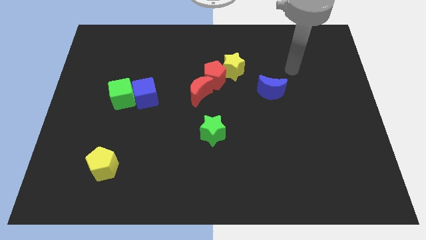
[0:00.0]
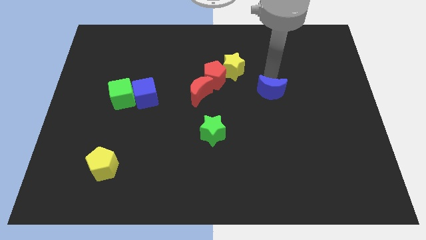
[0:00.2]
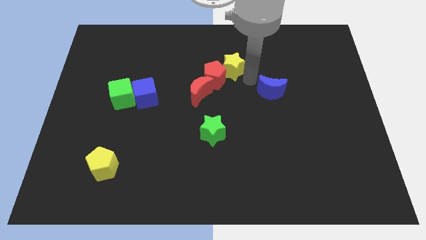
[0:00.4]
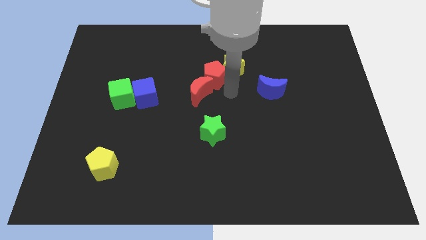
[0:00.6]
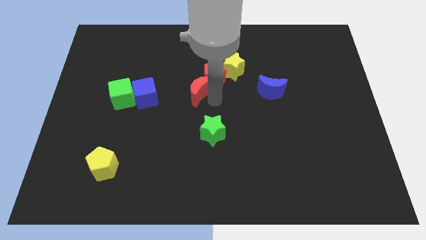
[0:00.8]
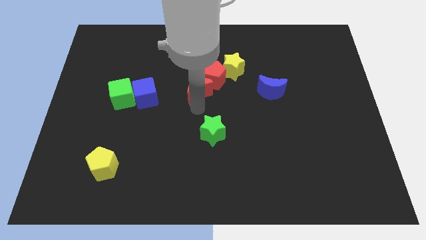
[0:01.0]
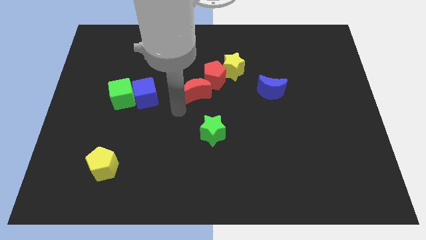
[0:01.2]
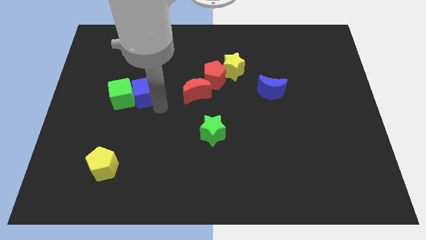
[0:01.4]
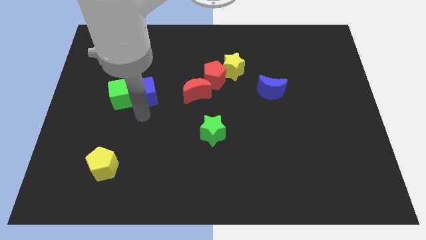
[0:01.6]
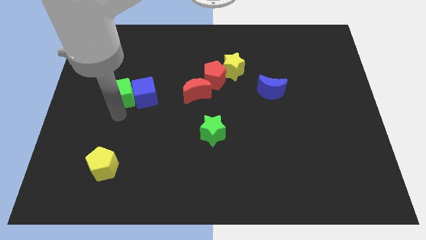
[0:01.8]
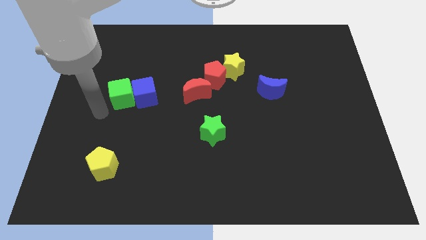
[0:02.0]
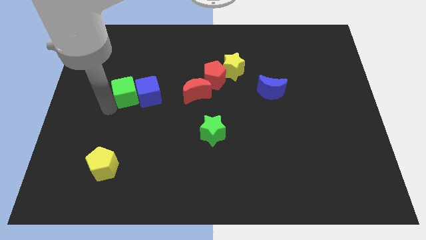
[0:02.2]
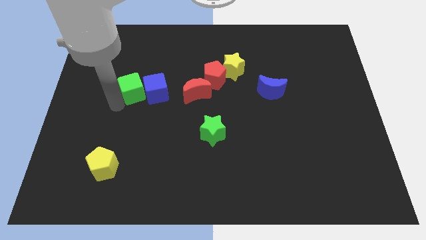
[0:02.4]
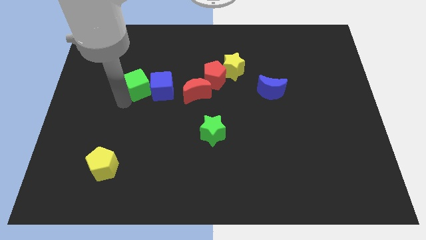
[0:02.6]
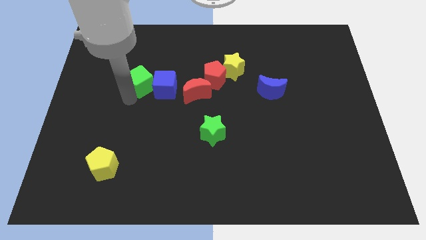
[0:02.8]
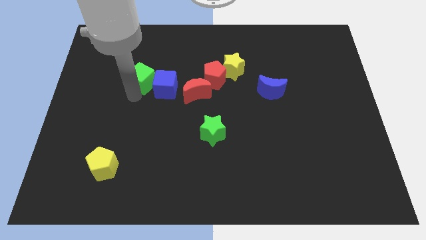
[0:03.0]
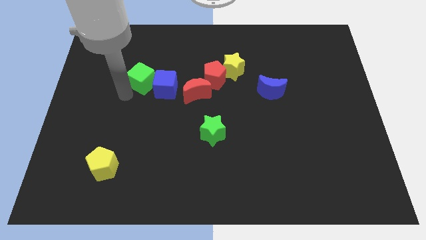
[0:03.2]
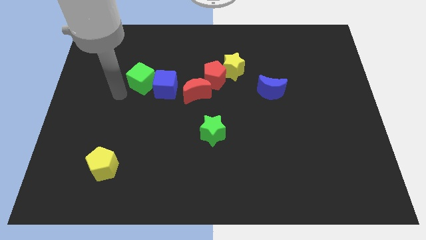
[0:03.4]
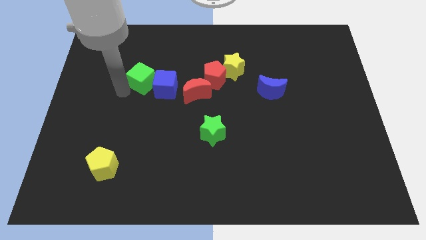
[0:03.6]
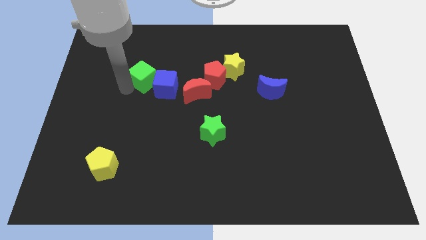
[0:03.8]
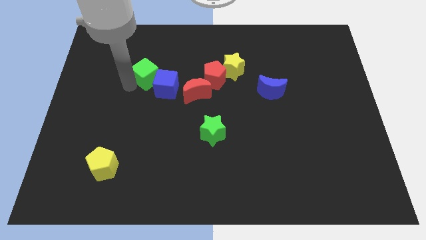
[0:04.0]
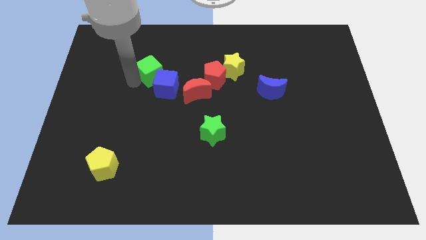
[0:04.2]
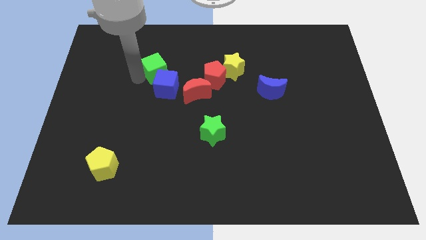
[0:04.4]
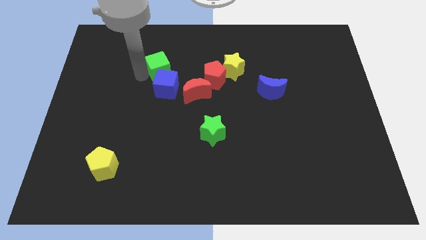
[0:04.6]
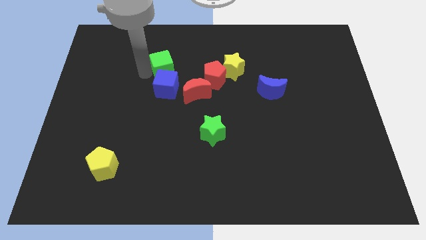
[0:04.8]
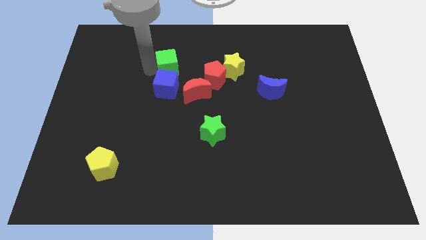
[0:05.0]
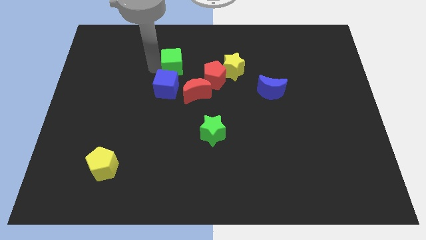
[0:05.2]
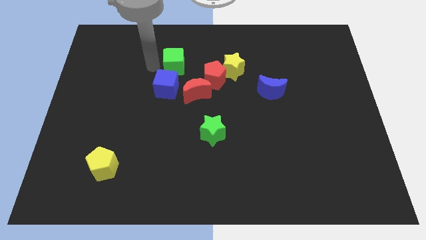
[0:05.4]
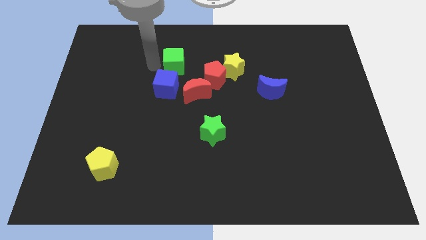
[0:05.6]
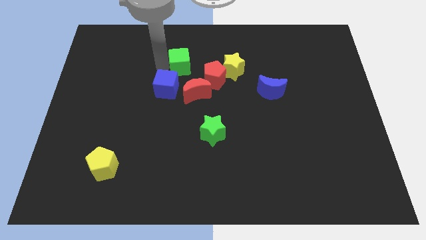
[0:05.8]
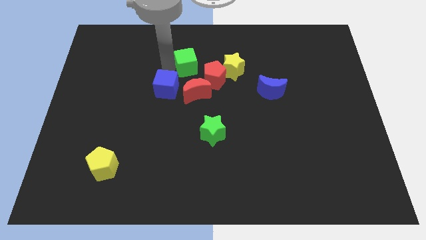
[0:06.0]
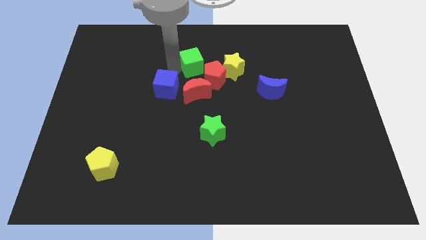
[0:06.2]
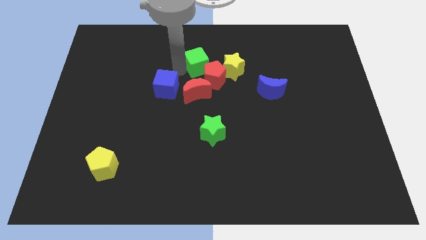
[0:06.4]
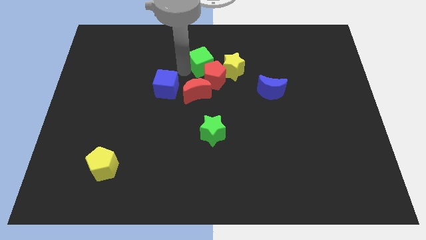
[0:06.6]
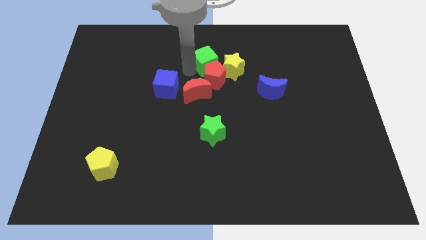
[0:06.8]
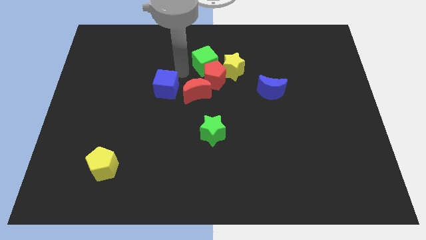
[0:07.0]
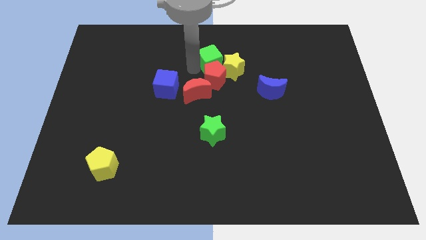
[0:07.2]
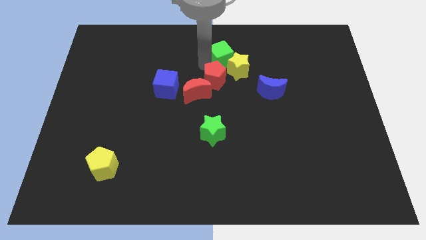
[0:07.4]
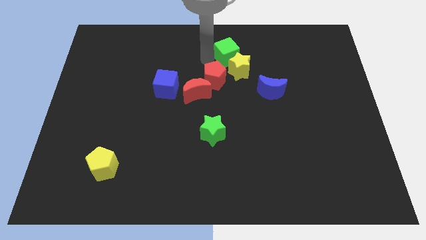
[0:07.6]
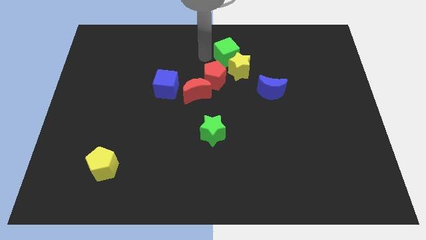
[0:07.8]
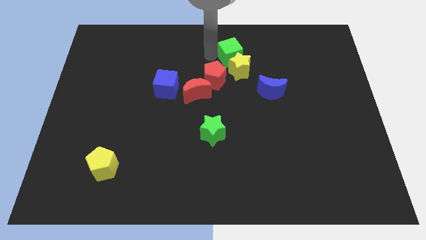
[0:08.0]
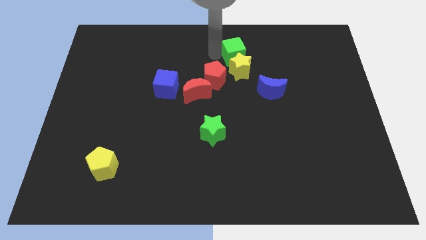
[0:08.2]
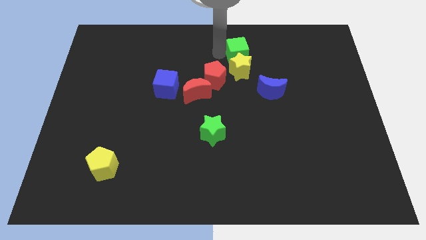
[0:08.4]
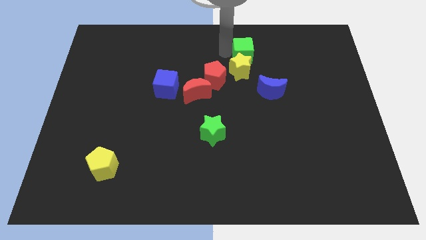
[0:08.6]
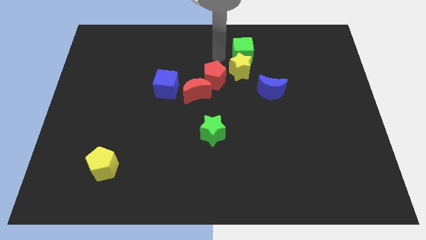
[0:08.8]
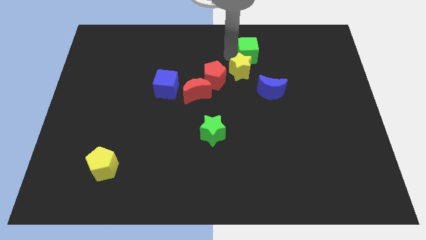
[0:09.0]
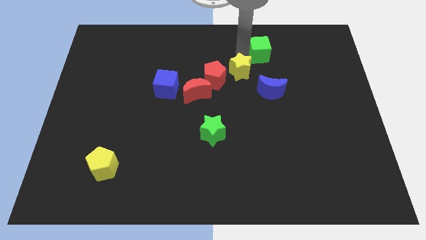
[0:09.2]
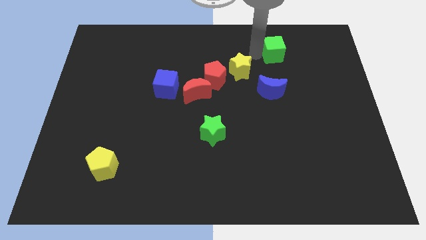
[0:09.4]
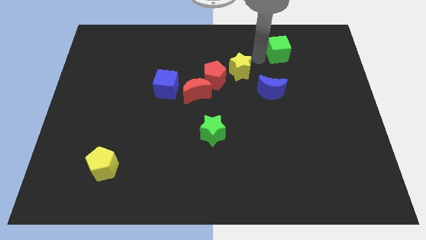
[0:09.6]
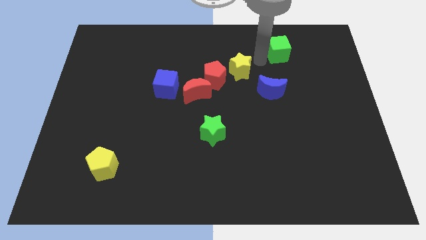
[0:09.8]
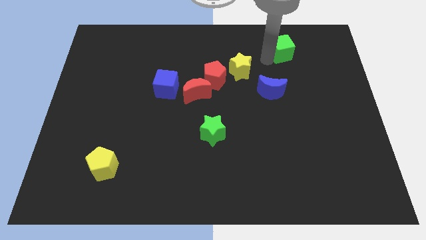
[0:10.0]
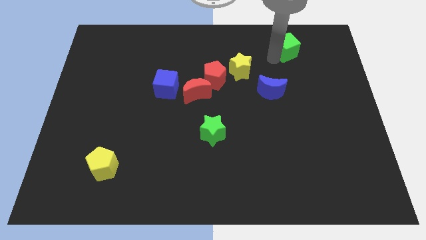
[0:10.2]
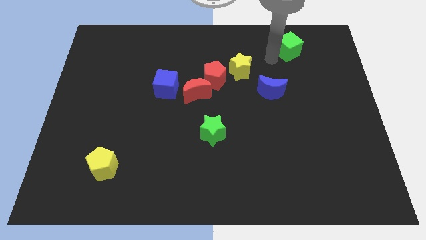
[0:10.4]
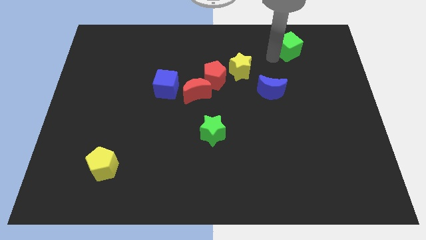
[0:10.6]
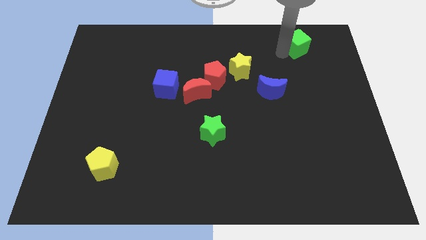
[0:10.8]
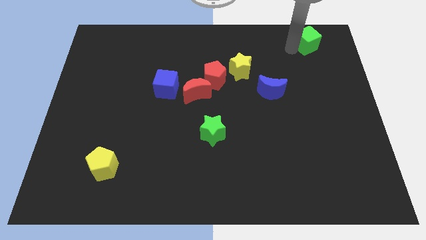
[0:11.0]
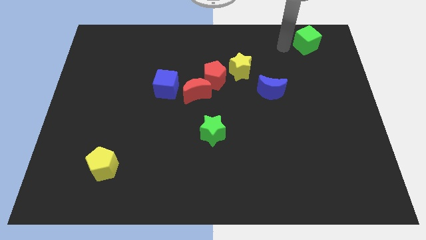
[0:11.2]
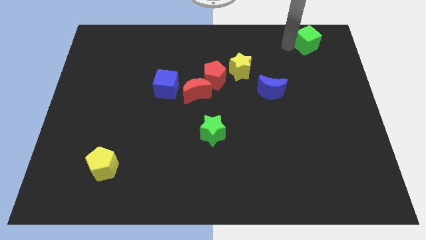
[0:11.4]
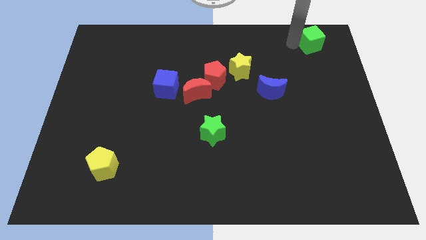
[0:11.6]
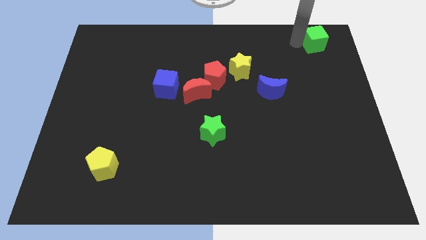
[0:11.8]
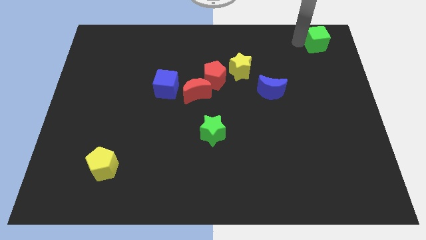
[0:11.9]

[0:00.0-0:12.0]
slide the green cube to the top right corner
